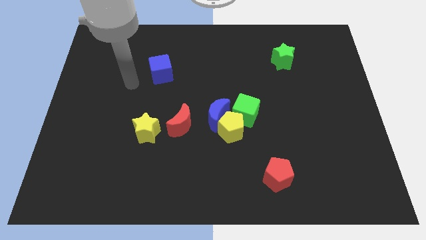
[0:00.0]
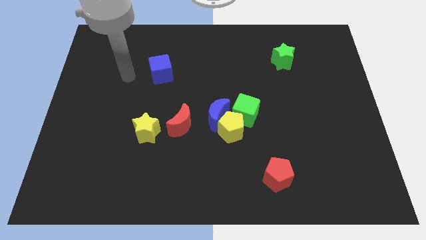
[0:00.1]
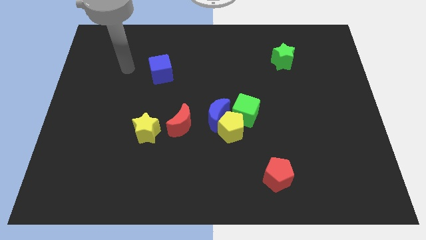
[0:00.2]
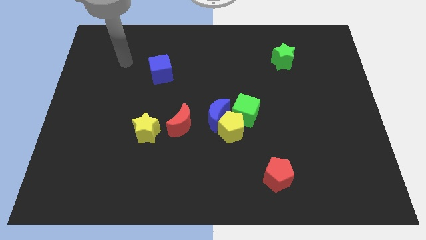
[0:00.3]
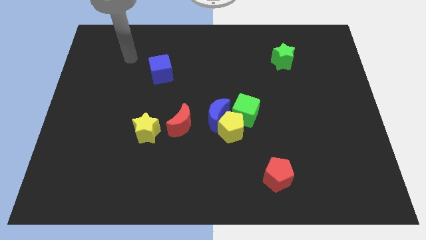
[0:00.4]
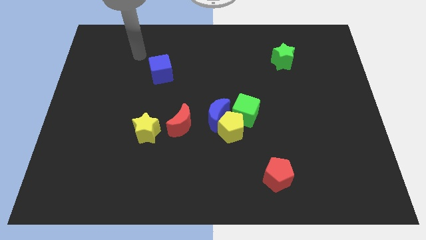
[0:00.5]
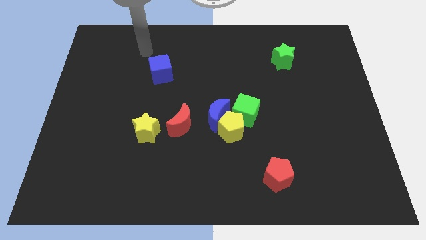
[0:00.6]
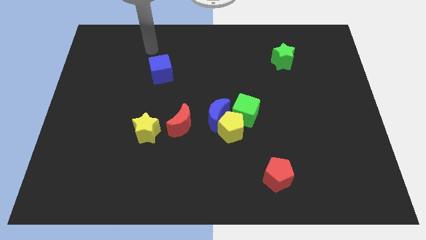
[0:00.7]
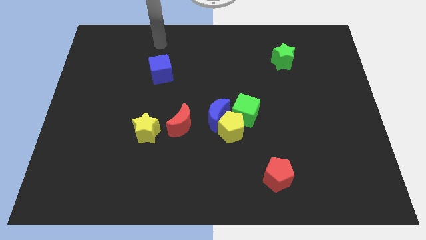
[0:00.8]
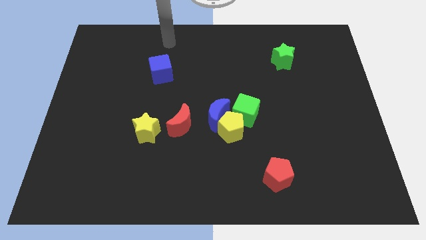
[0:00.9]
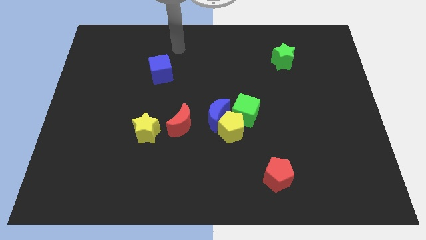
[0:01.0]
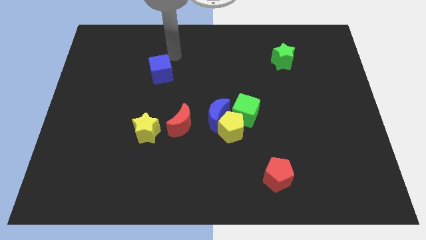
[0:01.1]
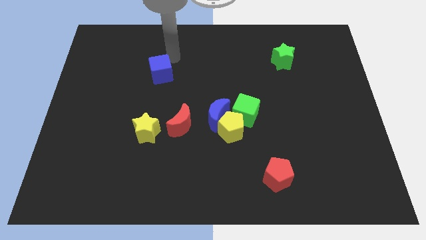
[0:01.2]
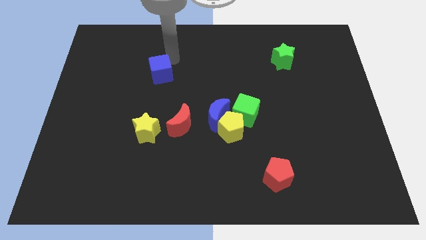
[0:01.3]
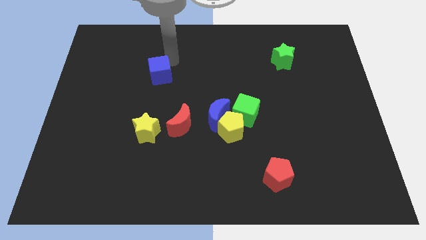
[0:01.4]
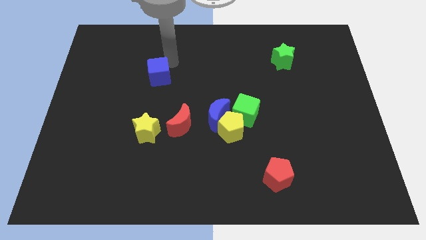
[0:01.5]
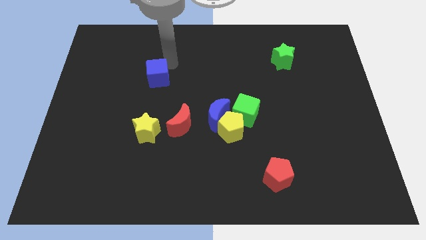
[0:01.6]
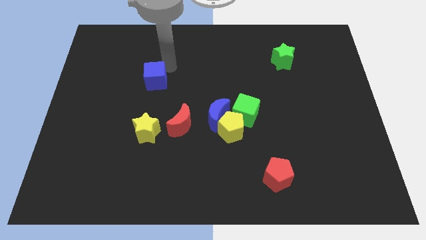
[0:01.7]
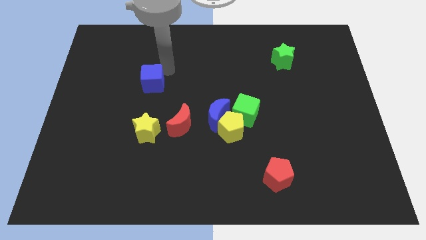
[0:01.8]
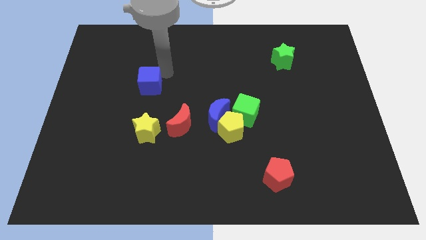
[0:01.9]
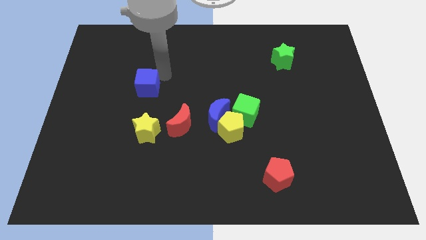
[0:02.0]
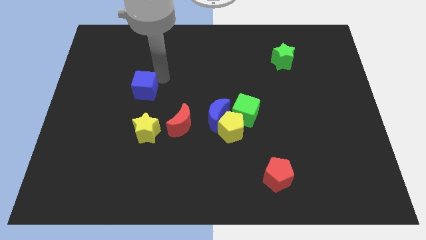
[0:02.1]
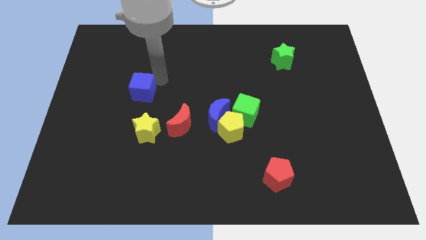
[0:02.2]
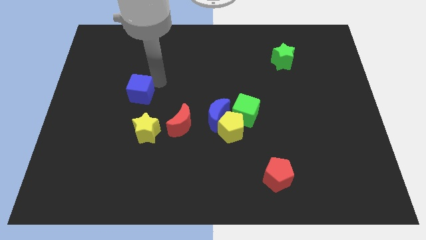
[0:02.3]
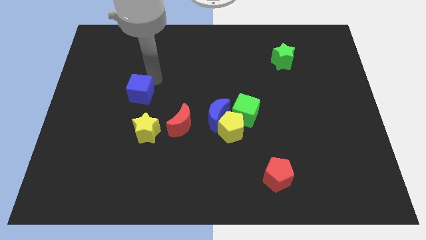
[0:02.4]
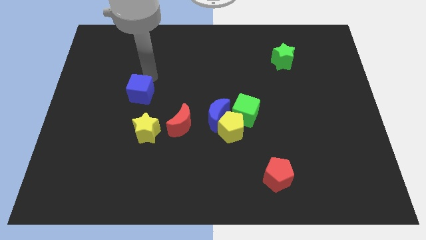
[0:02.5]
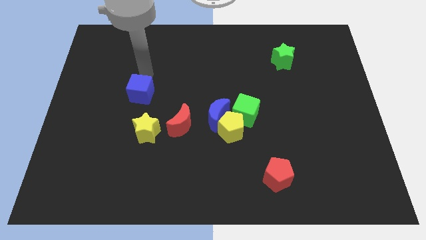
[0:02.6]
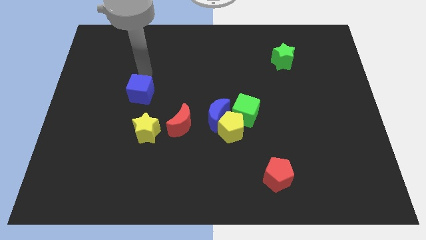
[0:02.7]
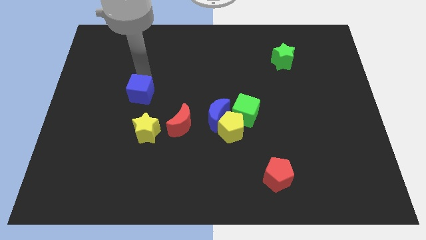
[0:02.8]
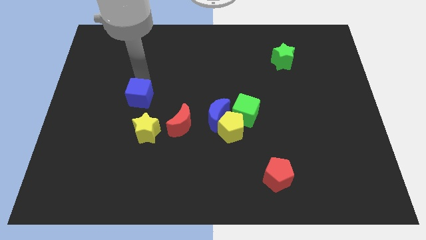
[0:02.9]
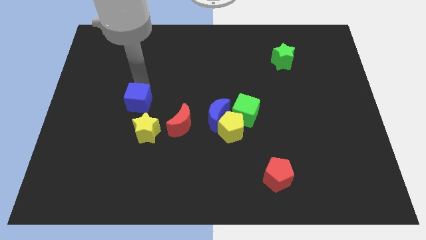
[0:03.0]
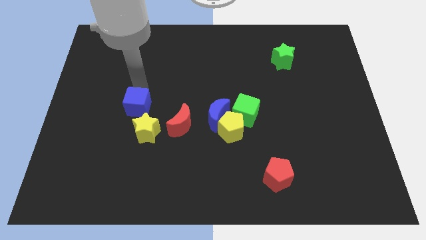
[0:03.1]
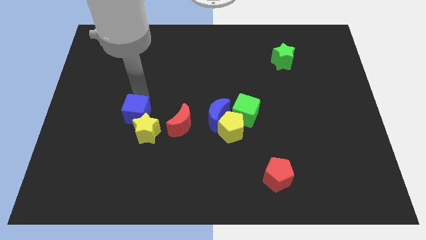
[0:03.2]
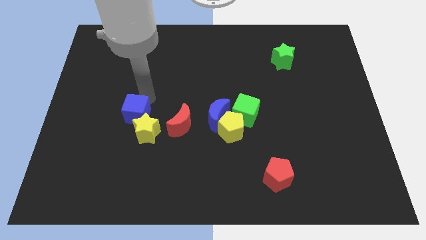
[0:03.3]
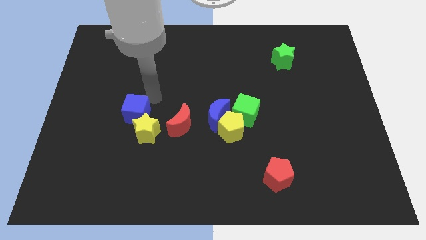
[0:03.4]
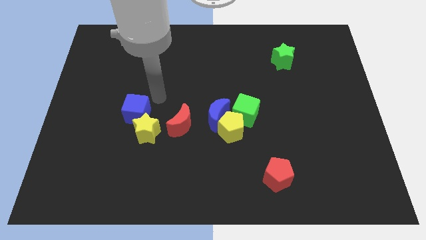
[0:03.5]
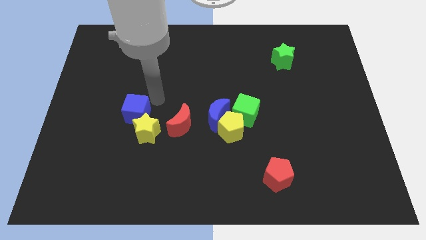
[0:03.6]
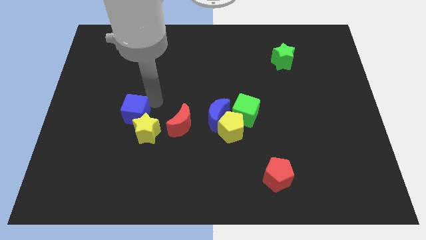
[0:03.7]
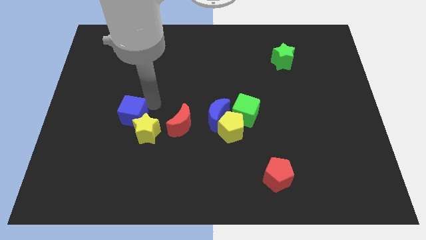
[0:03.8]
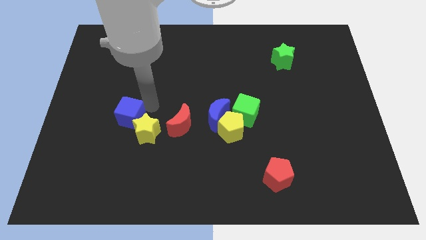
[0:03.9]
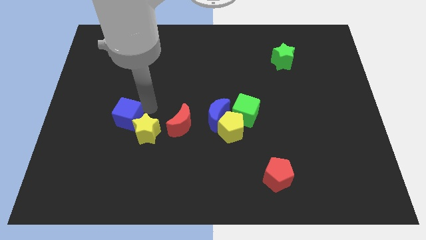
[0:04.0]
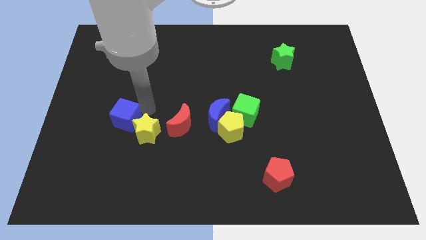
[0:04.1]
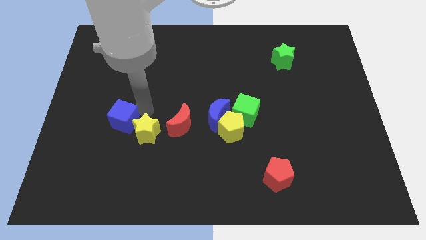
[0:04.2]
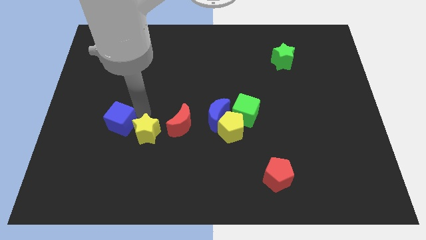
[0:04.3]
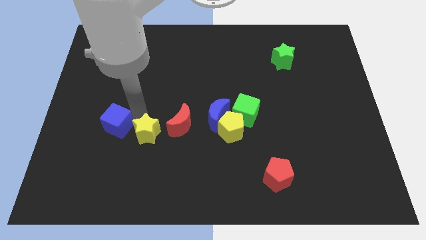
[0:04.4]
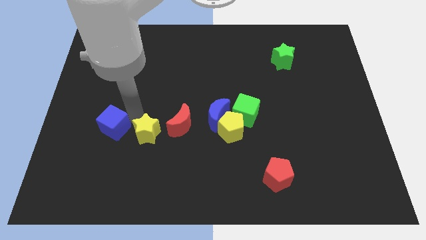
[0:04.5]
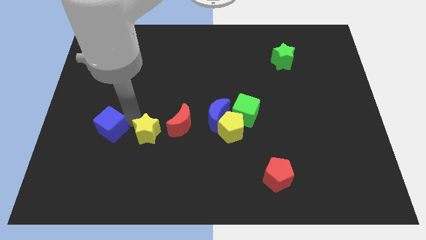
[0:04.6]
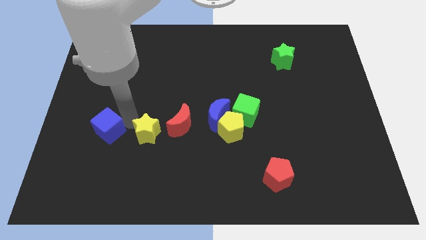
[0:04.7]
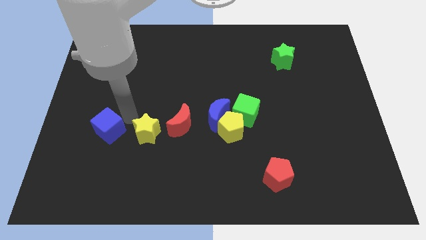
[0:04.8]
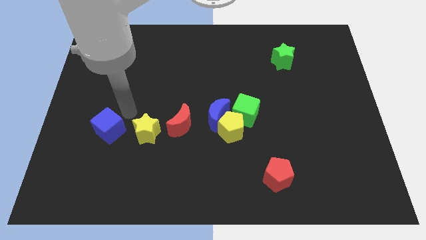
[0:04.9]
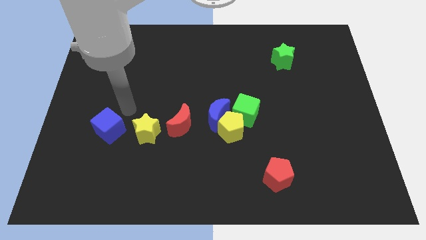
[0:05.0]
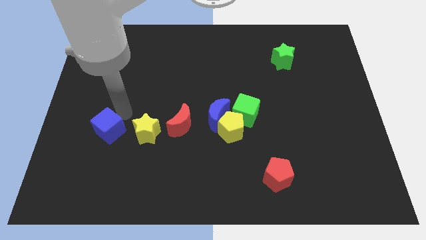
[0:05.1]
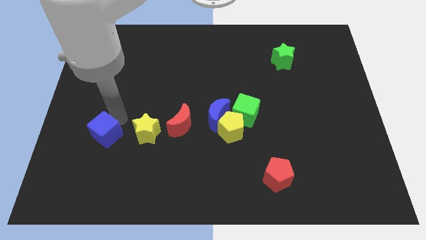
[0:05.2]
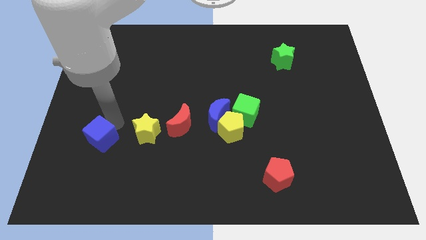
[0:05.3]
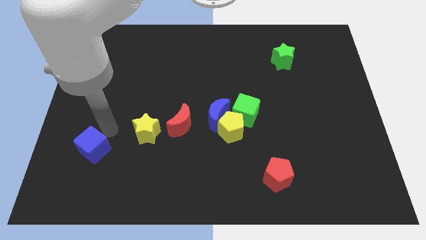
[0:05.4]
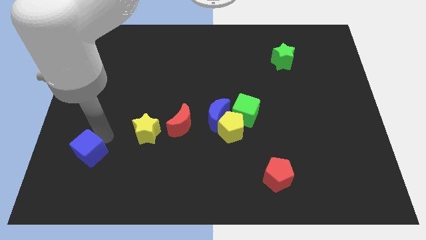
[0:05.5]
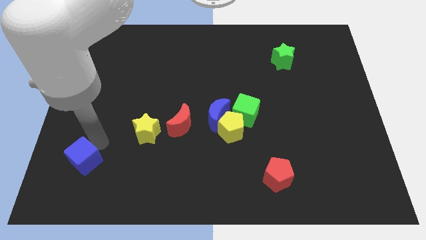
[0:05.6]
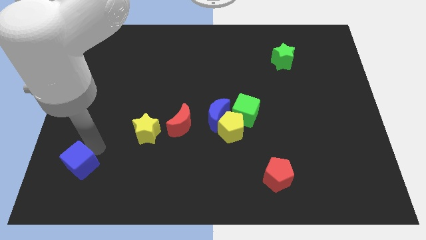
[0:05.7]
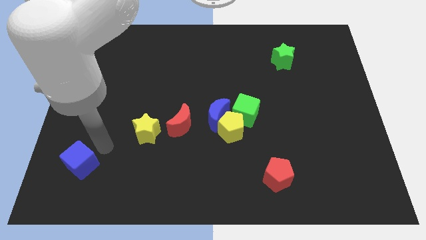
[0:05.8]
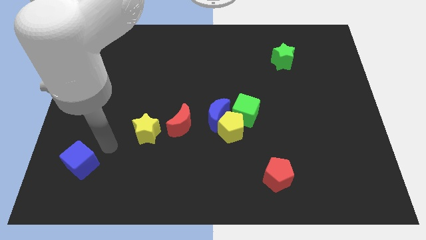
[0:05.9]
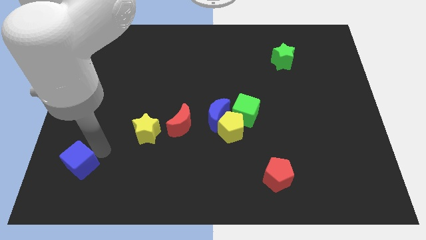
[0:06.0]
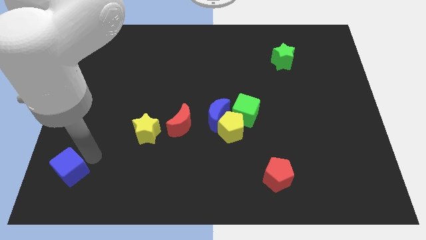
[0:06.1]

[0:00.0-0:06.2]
move the blue cube to the lower left corner

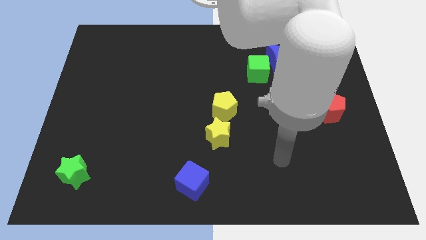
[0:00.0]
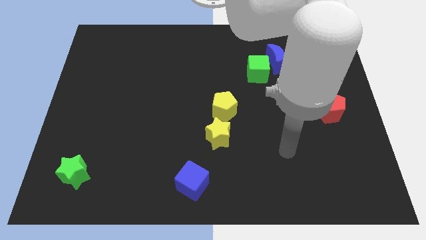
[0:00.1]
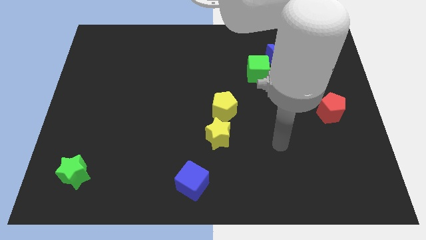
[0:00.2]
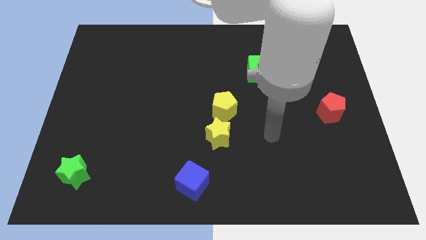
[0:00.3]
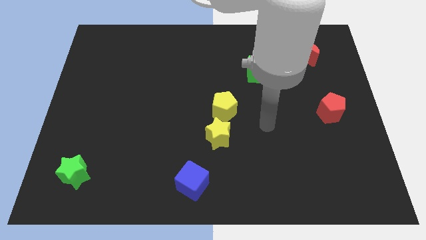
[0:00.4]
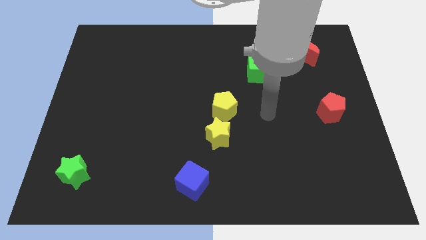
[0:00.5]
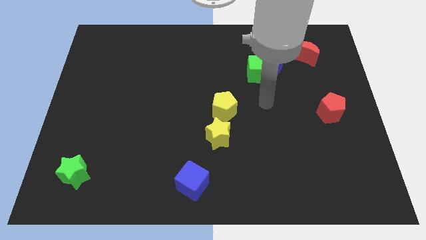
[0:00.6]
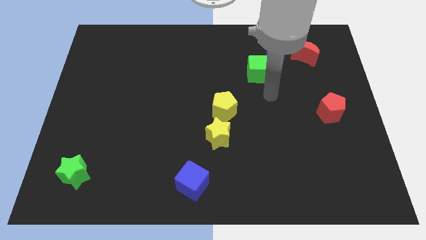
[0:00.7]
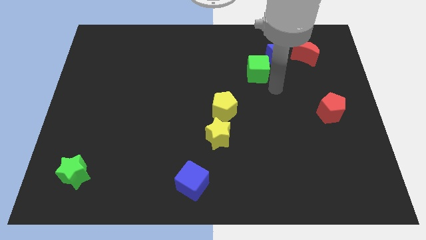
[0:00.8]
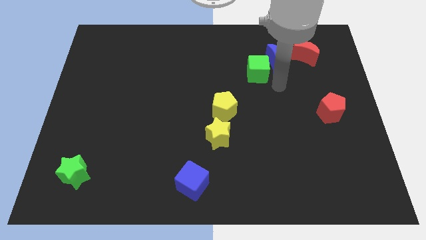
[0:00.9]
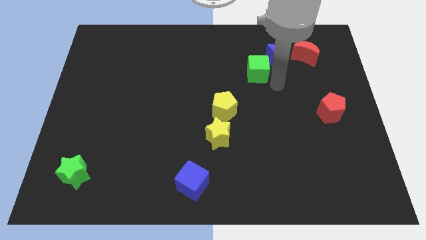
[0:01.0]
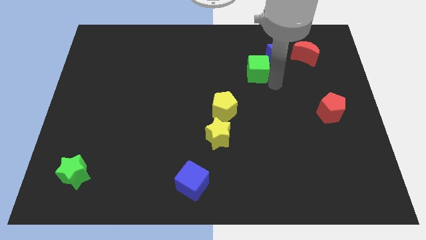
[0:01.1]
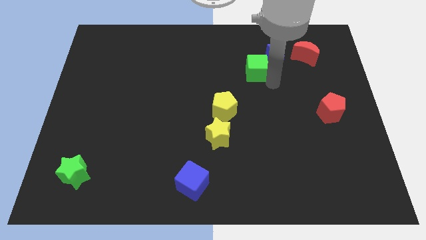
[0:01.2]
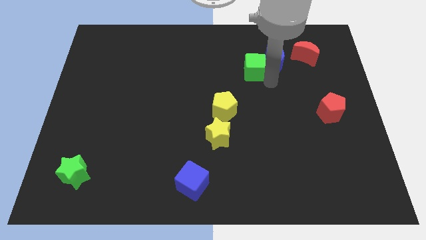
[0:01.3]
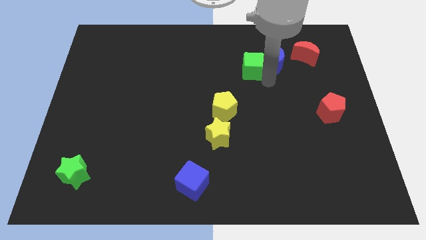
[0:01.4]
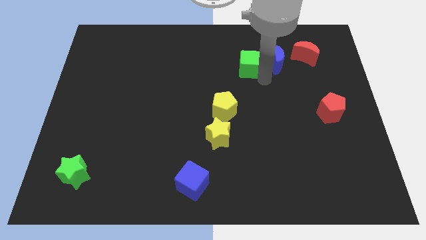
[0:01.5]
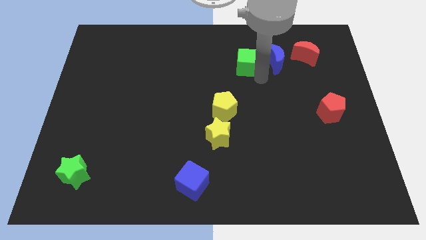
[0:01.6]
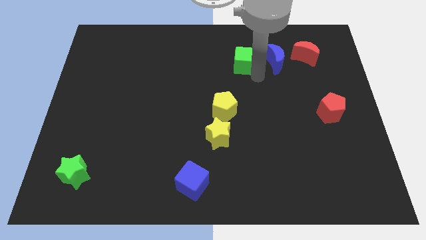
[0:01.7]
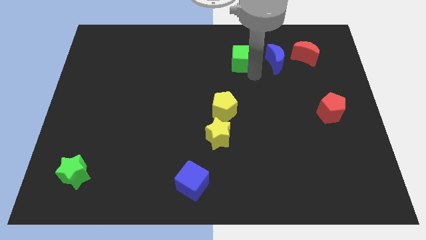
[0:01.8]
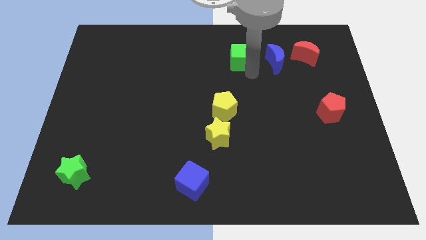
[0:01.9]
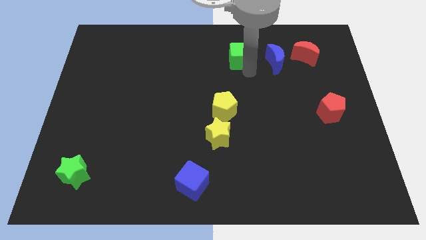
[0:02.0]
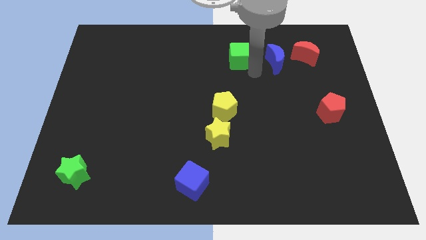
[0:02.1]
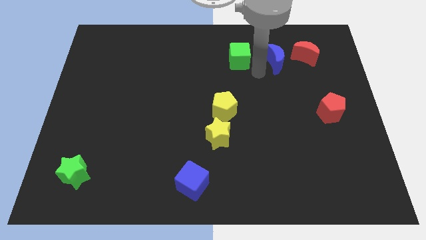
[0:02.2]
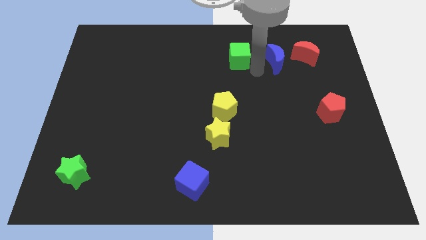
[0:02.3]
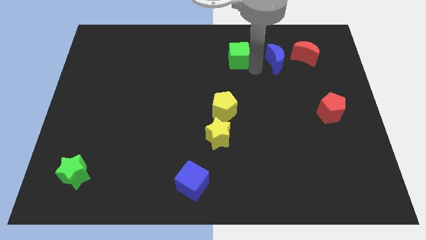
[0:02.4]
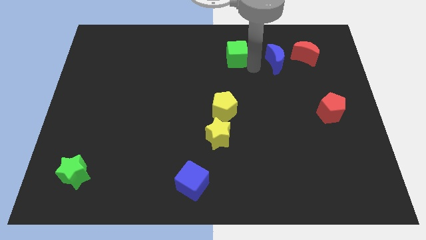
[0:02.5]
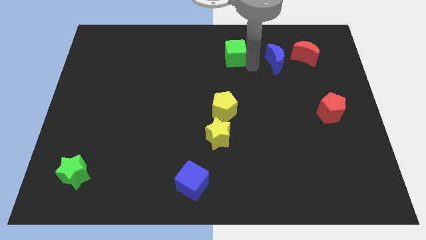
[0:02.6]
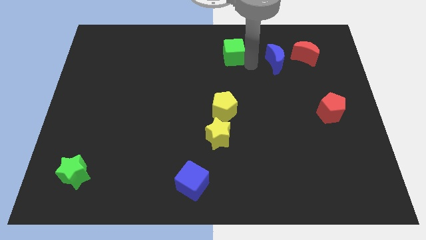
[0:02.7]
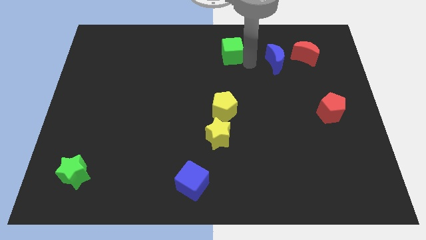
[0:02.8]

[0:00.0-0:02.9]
put the green cube to the towards your base
